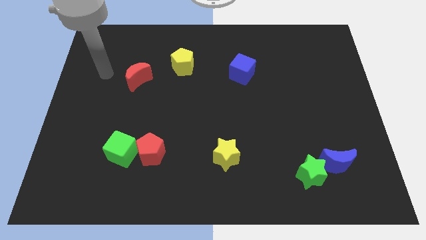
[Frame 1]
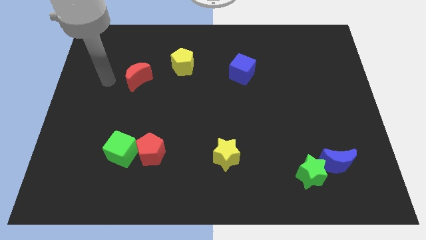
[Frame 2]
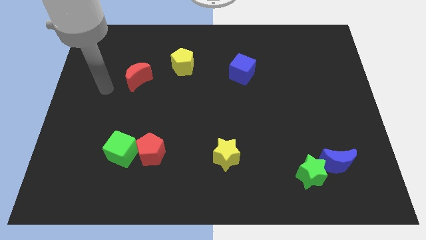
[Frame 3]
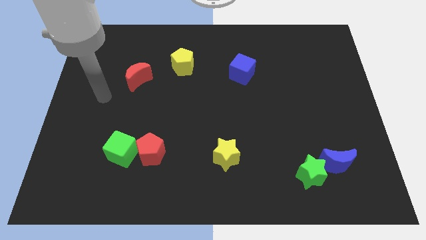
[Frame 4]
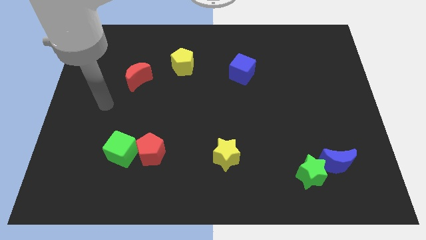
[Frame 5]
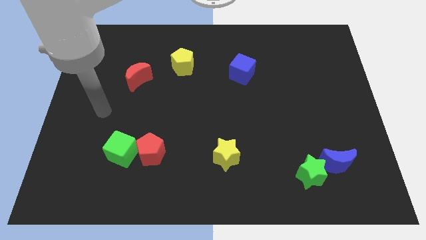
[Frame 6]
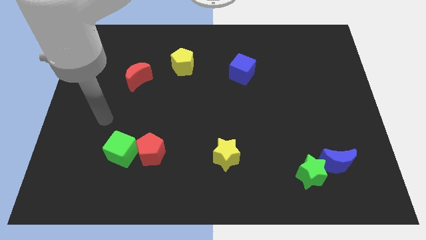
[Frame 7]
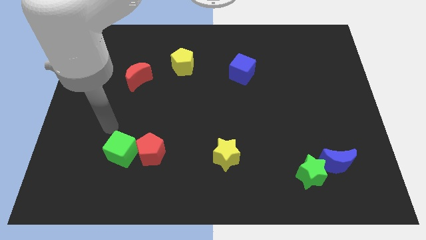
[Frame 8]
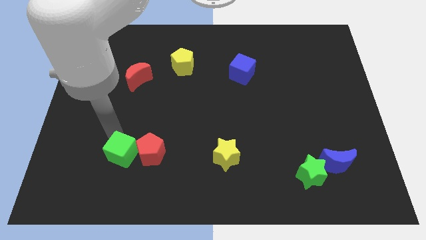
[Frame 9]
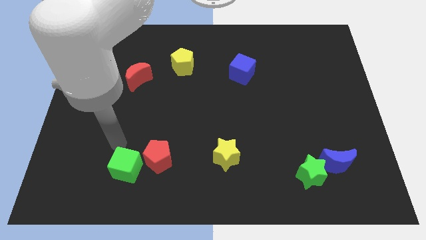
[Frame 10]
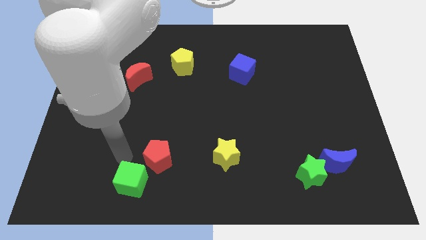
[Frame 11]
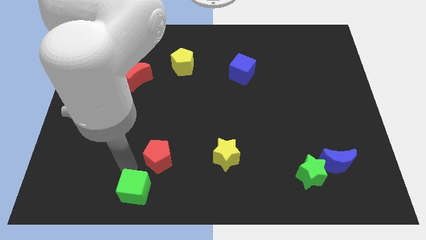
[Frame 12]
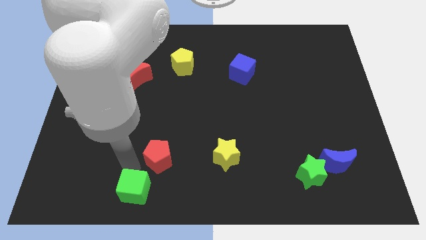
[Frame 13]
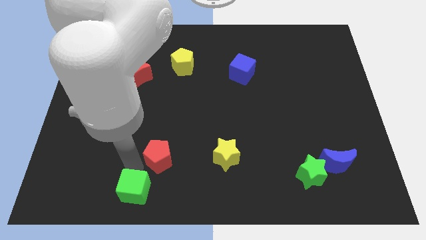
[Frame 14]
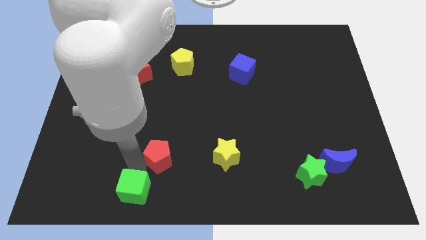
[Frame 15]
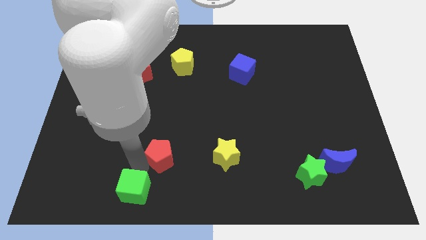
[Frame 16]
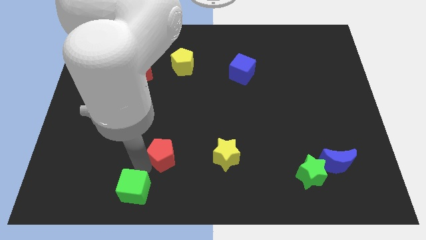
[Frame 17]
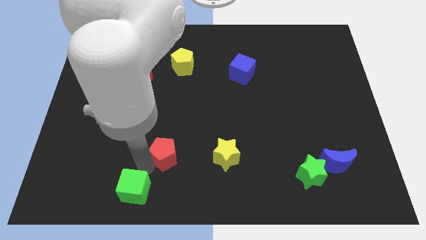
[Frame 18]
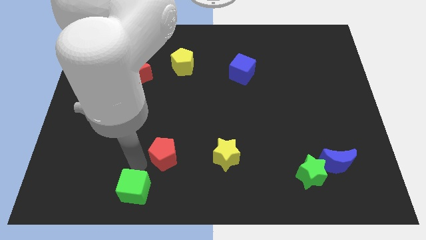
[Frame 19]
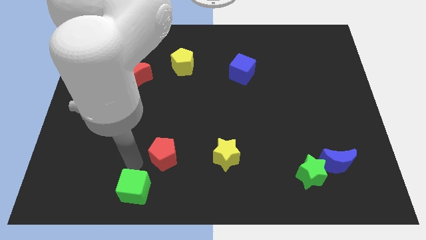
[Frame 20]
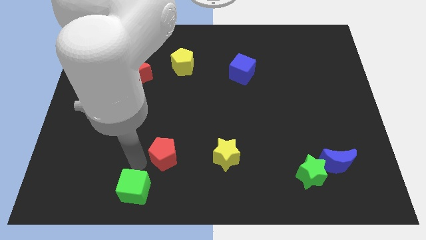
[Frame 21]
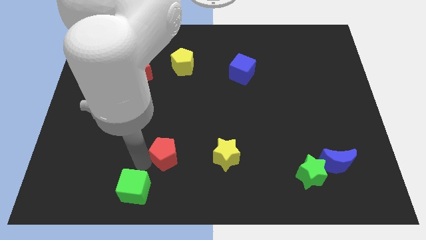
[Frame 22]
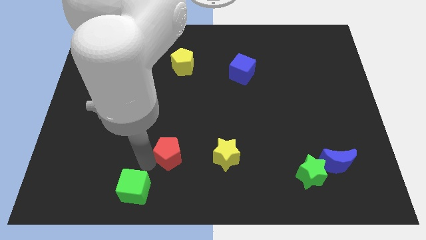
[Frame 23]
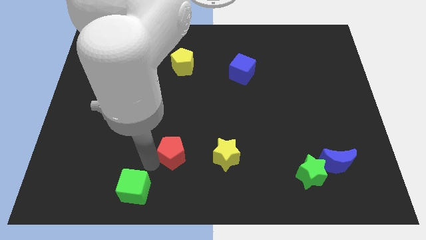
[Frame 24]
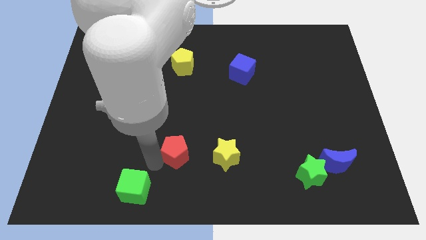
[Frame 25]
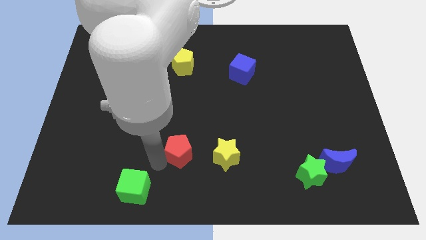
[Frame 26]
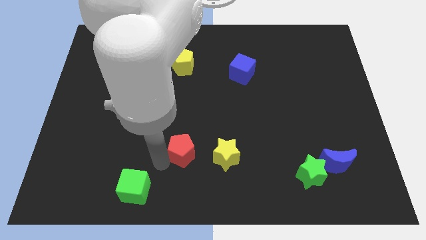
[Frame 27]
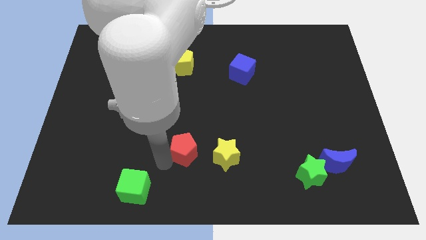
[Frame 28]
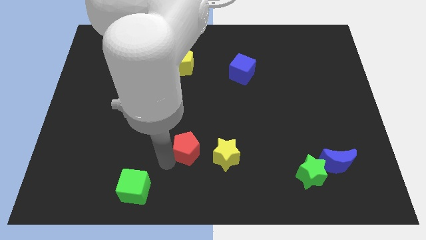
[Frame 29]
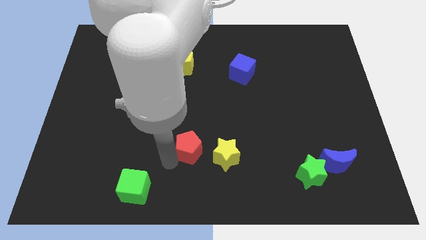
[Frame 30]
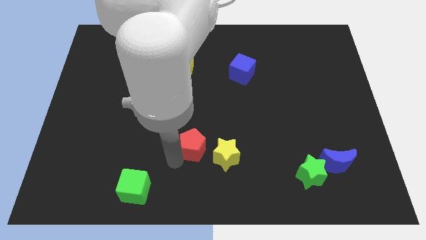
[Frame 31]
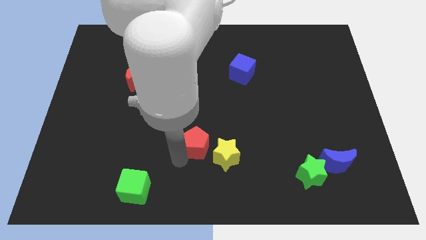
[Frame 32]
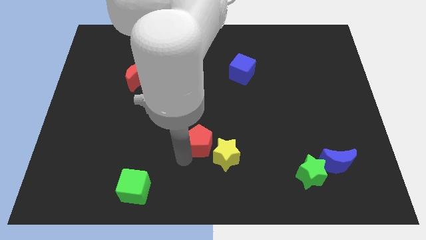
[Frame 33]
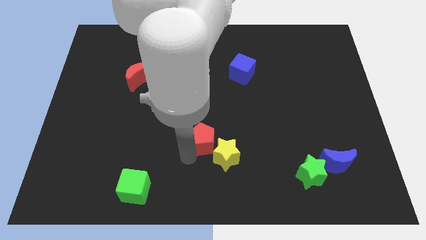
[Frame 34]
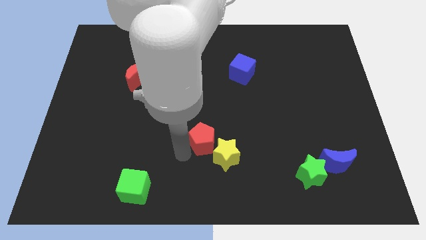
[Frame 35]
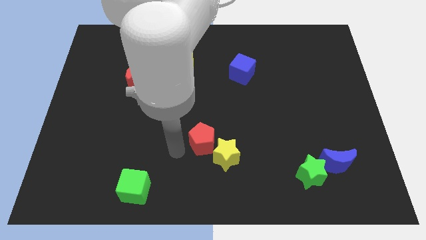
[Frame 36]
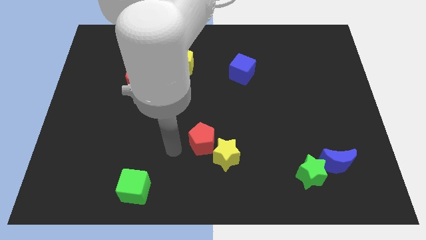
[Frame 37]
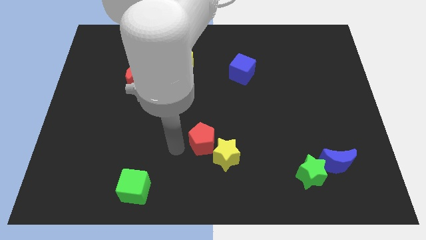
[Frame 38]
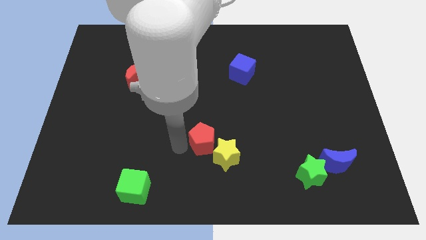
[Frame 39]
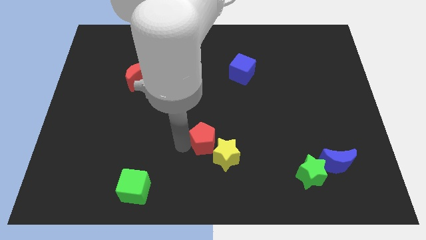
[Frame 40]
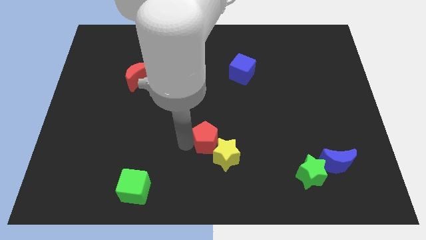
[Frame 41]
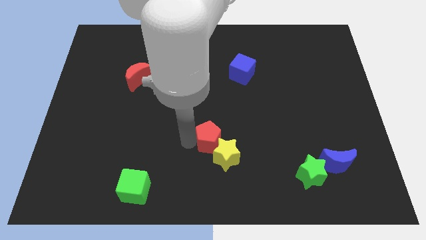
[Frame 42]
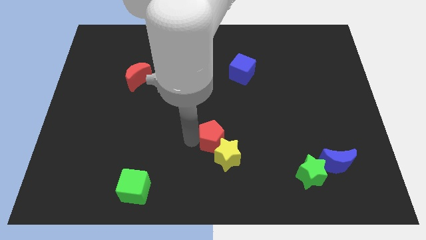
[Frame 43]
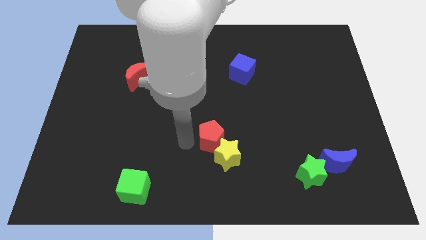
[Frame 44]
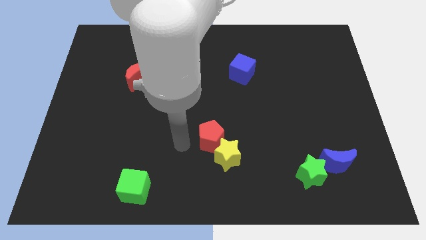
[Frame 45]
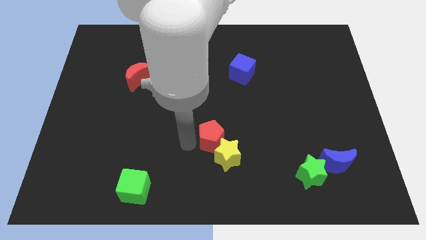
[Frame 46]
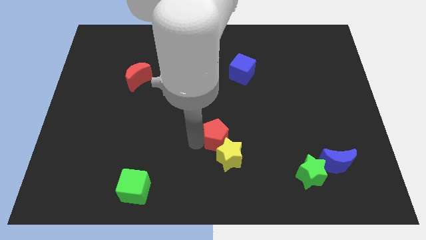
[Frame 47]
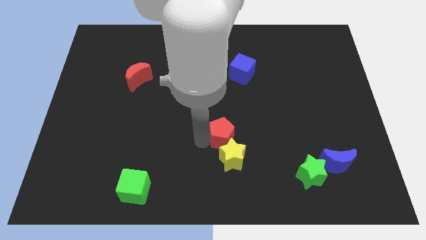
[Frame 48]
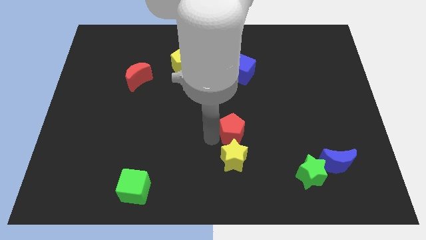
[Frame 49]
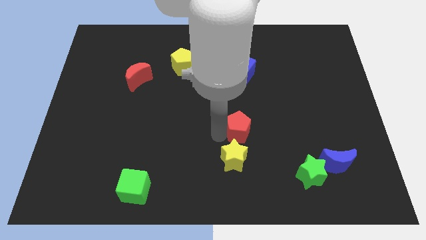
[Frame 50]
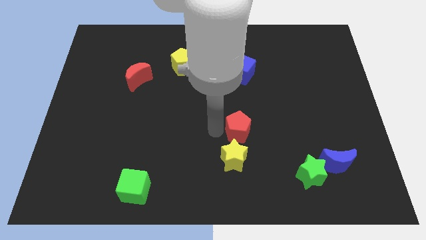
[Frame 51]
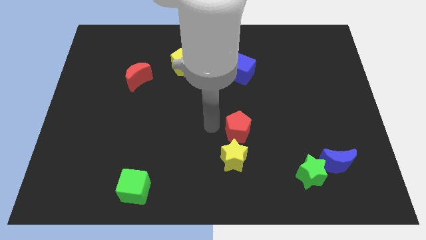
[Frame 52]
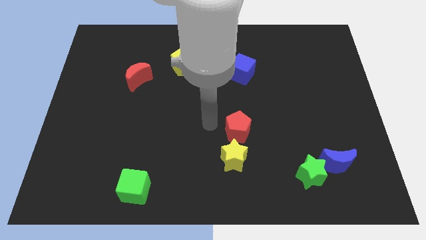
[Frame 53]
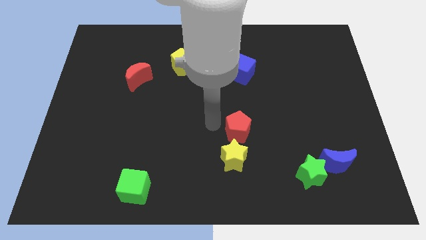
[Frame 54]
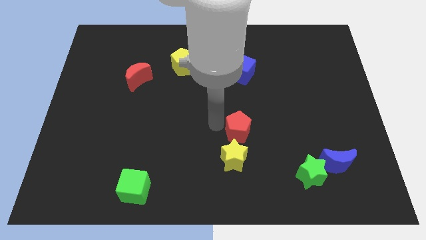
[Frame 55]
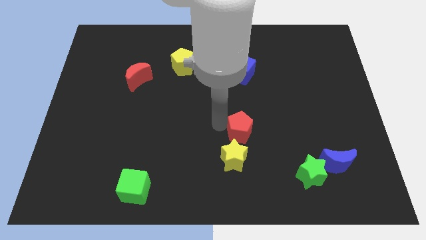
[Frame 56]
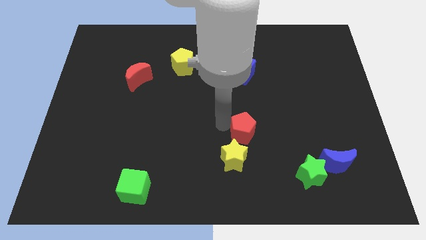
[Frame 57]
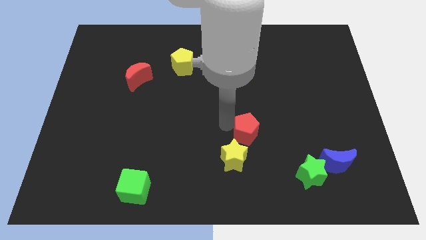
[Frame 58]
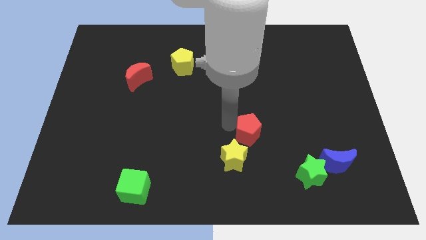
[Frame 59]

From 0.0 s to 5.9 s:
slide the red pentagon right

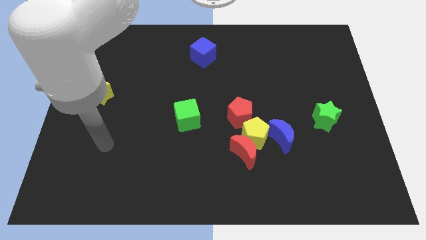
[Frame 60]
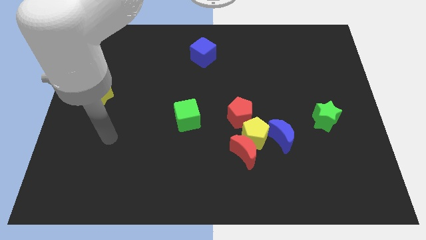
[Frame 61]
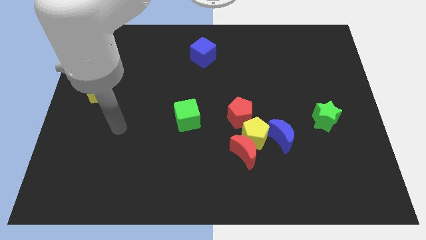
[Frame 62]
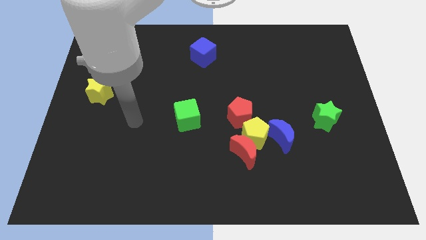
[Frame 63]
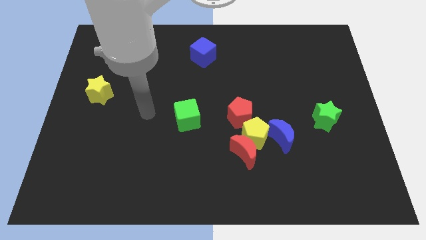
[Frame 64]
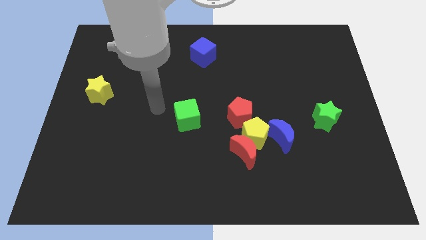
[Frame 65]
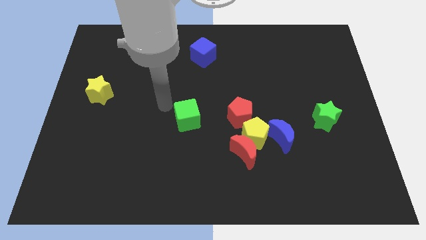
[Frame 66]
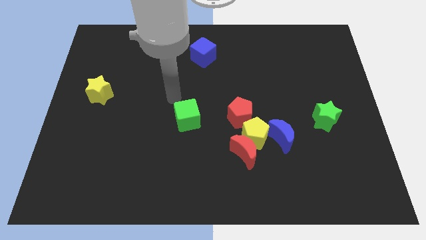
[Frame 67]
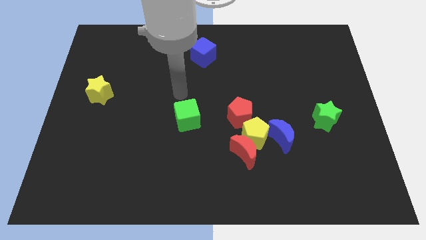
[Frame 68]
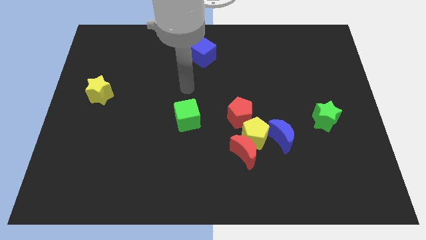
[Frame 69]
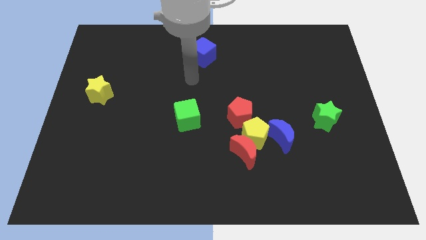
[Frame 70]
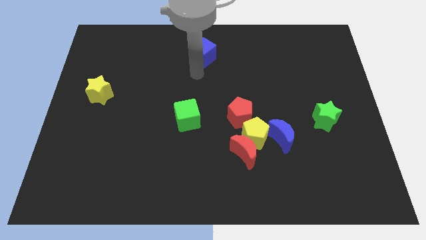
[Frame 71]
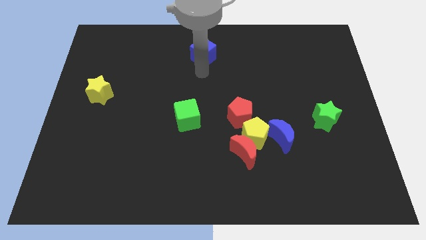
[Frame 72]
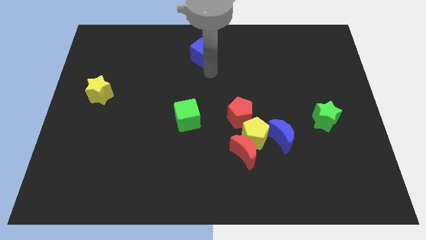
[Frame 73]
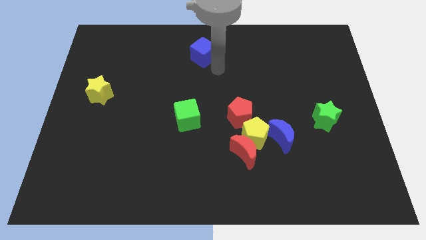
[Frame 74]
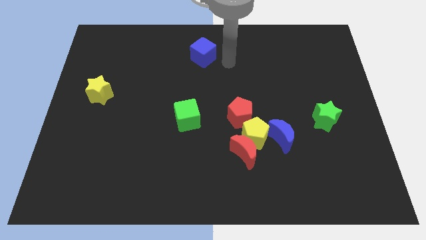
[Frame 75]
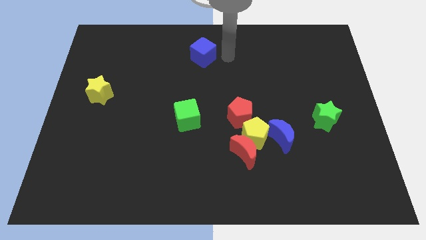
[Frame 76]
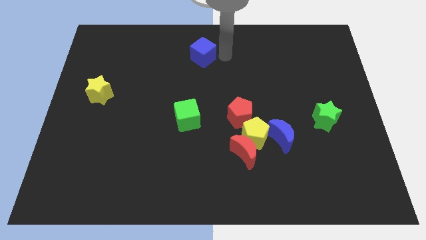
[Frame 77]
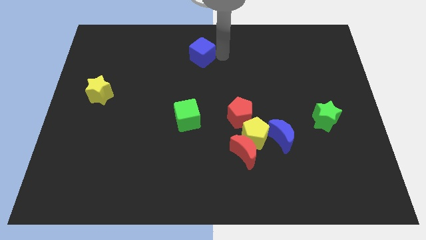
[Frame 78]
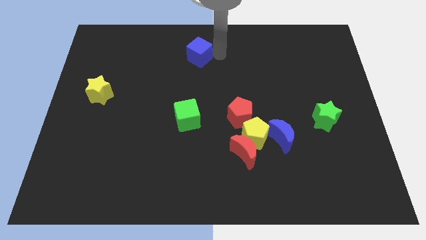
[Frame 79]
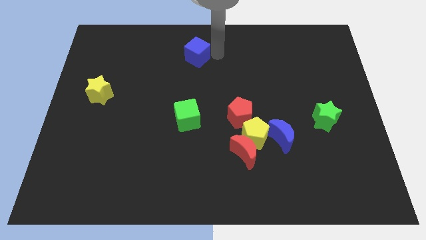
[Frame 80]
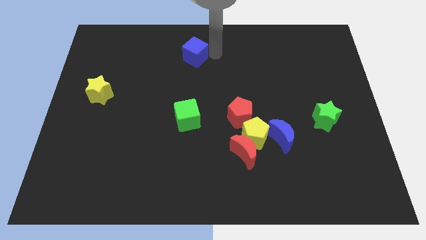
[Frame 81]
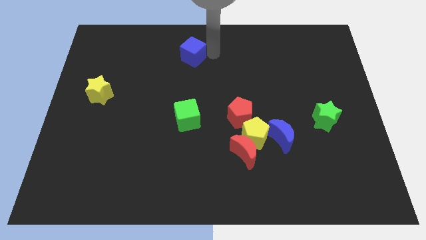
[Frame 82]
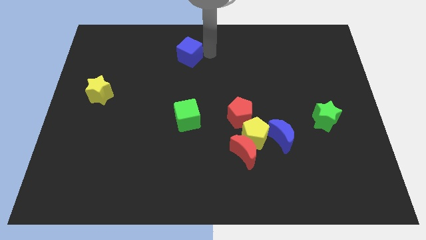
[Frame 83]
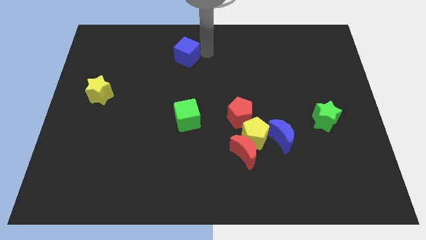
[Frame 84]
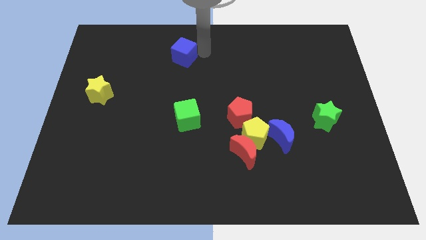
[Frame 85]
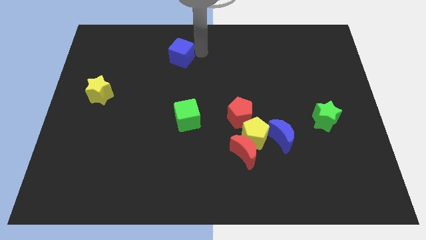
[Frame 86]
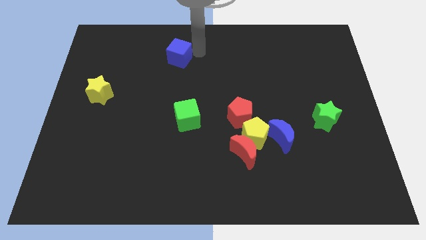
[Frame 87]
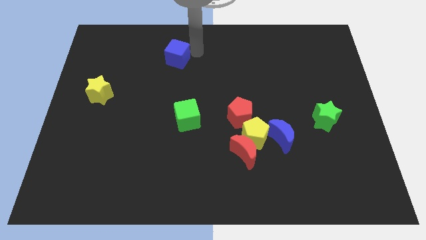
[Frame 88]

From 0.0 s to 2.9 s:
slide the blue cube left a little bit
